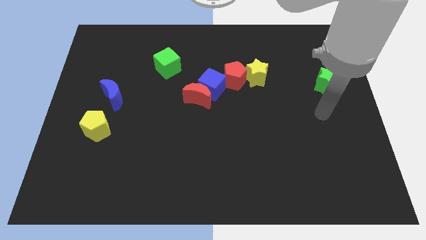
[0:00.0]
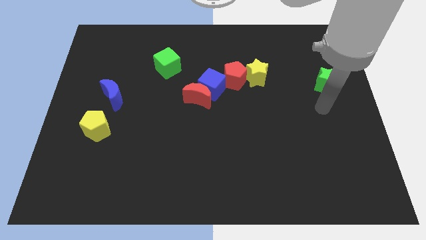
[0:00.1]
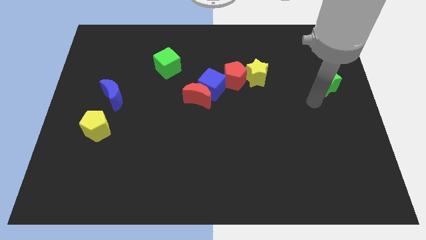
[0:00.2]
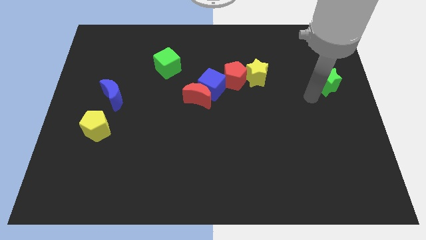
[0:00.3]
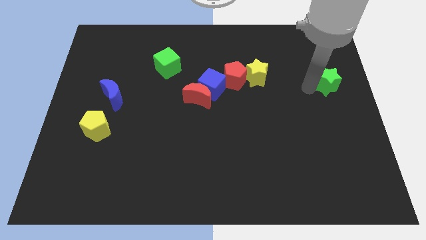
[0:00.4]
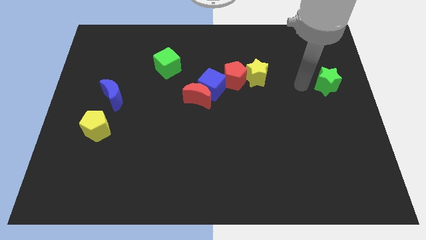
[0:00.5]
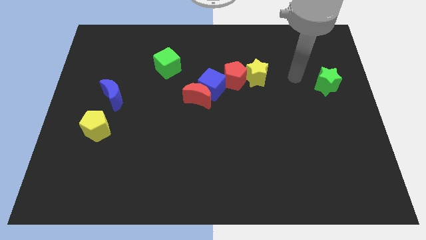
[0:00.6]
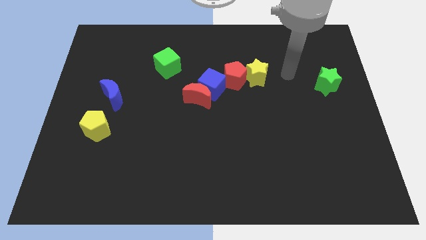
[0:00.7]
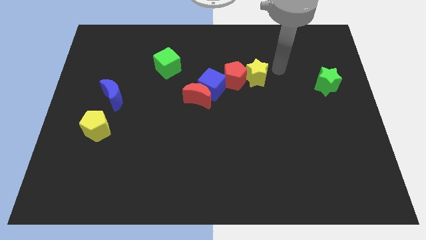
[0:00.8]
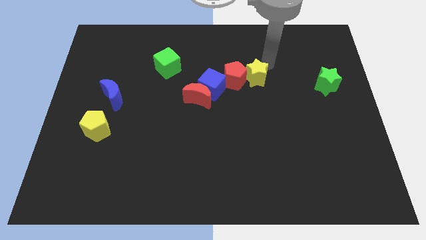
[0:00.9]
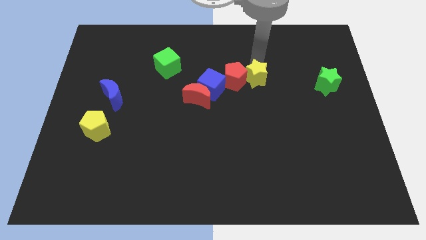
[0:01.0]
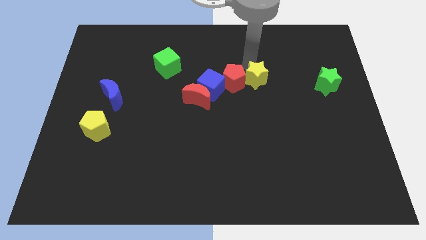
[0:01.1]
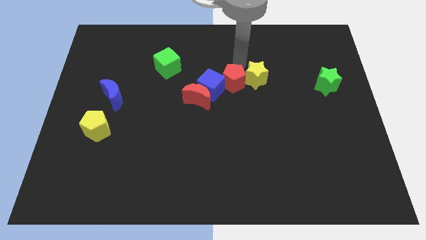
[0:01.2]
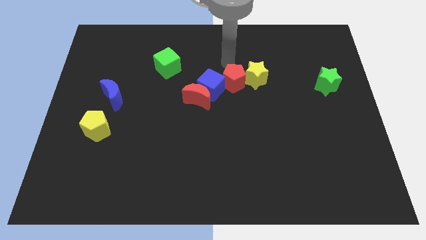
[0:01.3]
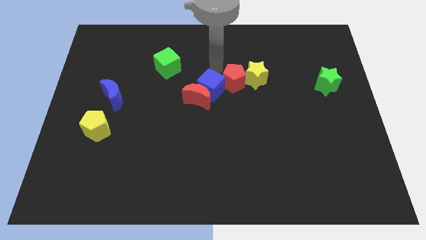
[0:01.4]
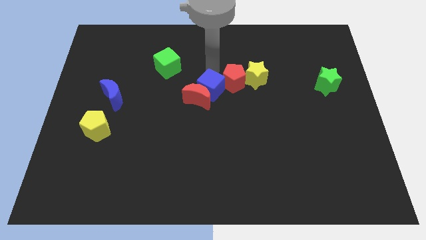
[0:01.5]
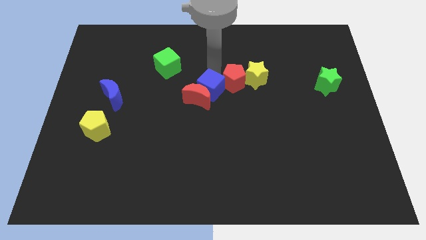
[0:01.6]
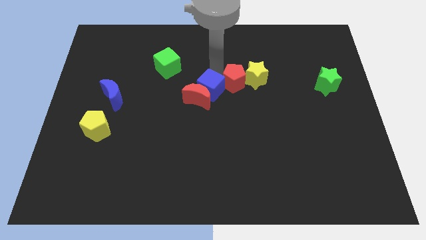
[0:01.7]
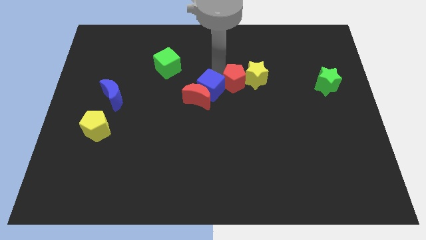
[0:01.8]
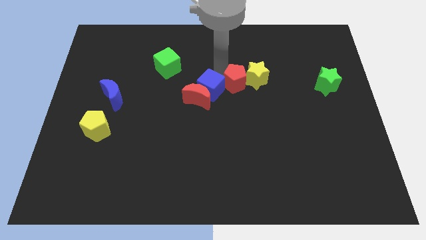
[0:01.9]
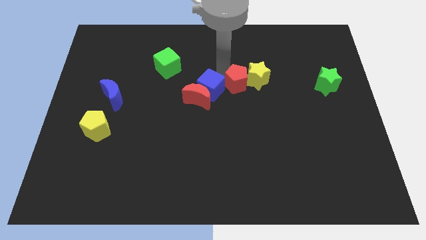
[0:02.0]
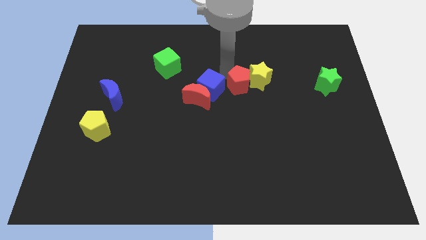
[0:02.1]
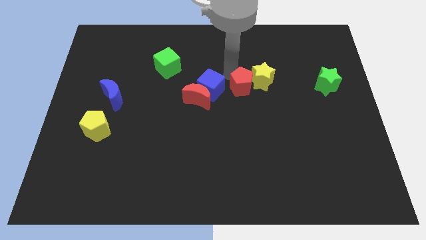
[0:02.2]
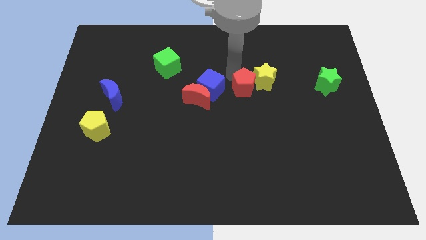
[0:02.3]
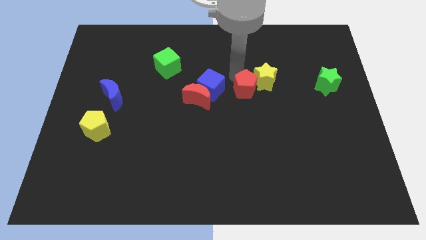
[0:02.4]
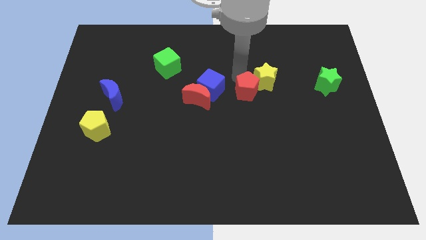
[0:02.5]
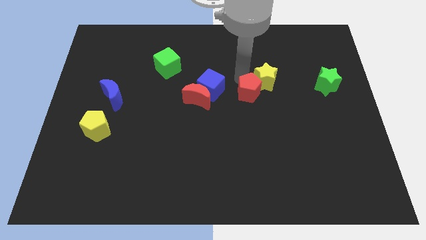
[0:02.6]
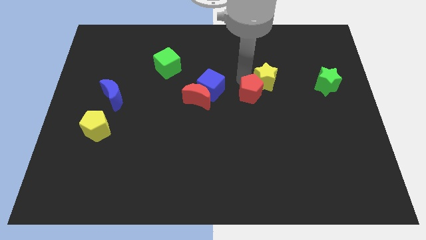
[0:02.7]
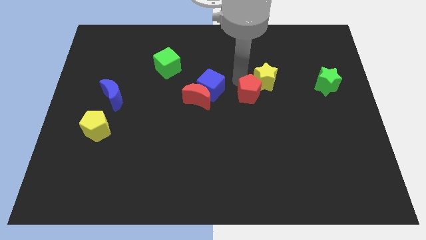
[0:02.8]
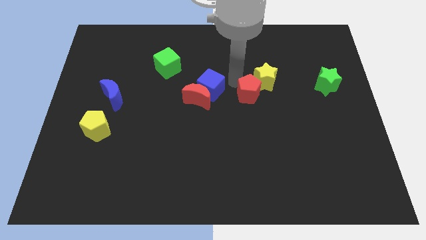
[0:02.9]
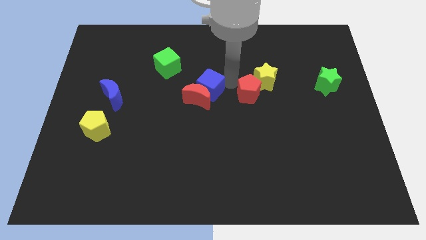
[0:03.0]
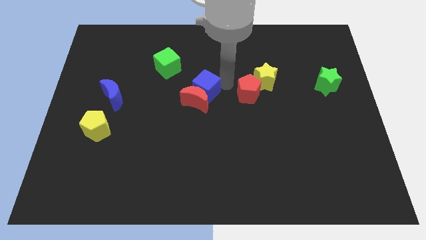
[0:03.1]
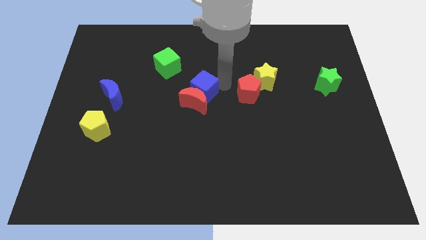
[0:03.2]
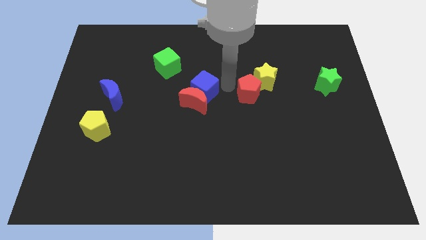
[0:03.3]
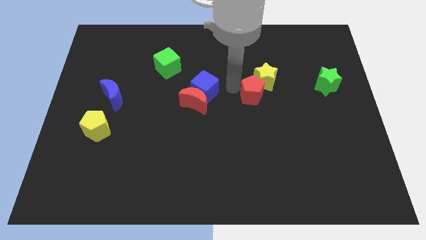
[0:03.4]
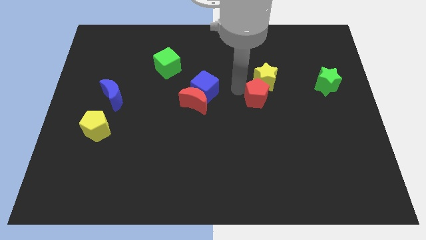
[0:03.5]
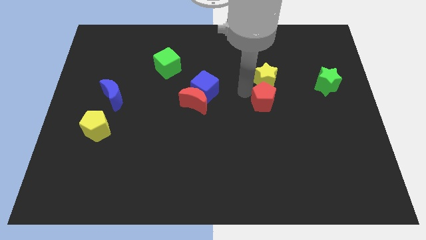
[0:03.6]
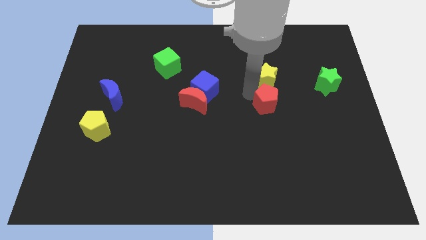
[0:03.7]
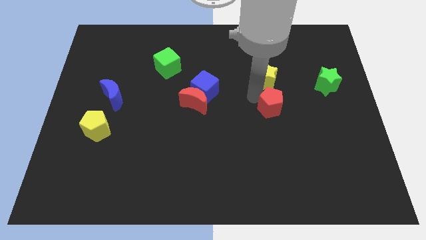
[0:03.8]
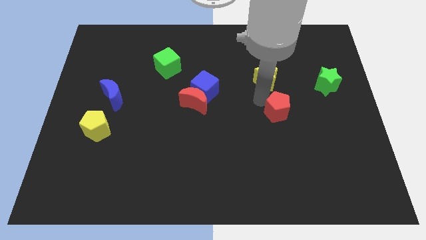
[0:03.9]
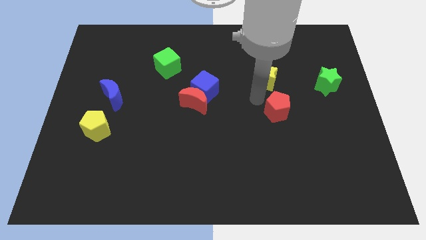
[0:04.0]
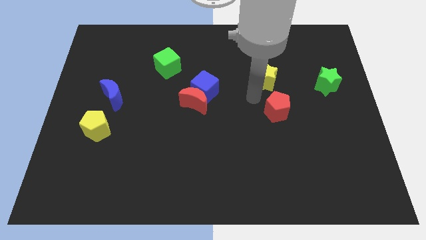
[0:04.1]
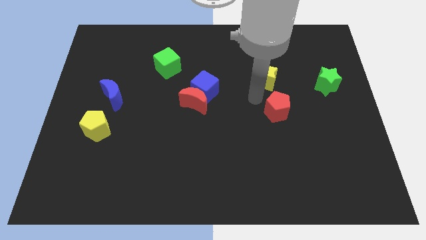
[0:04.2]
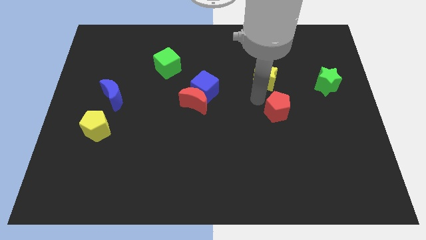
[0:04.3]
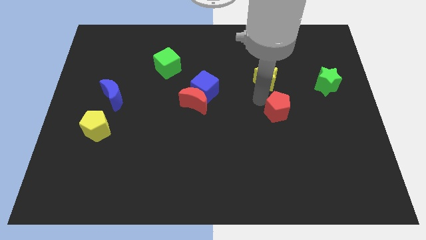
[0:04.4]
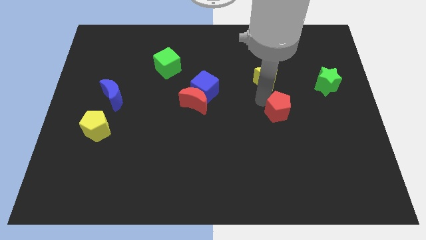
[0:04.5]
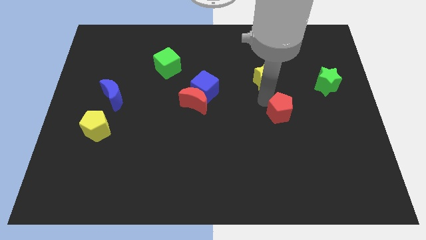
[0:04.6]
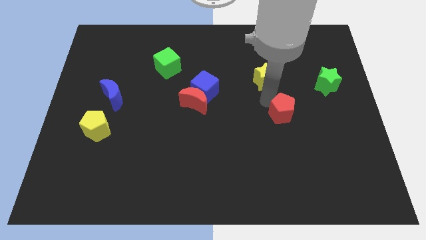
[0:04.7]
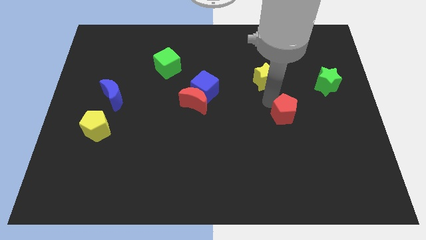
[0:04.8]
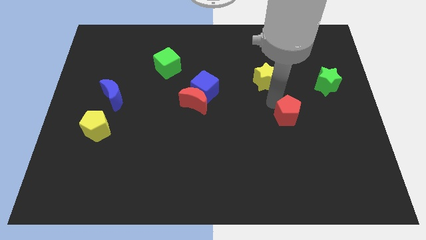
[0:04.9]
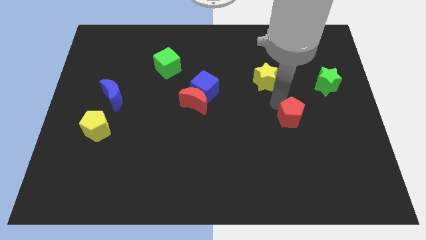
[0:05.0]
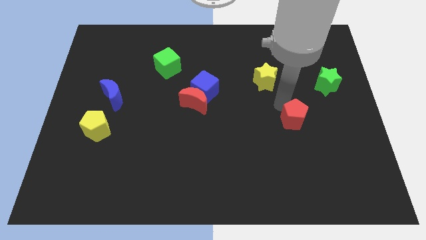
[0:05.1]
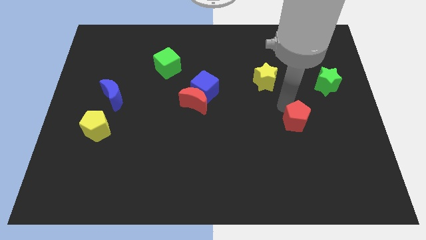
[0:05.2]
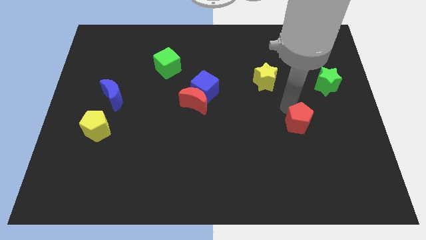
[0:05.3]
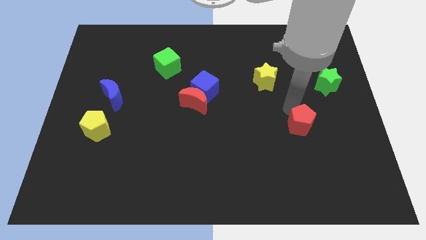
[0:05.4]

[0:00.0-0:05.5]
push the red pentagon diagonally down and right

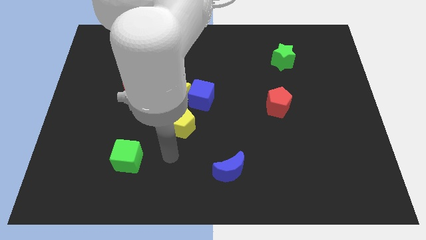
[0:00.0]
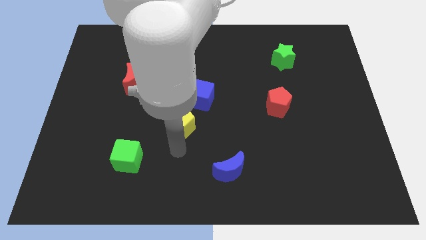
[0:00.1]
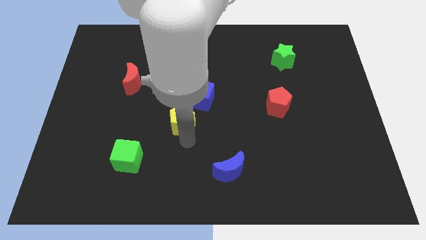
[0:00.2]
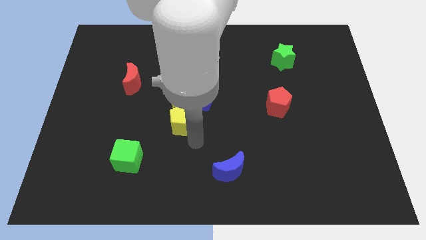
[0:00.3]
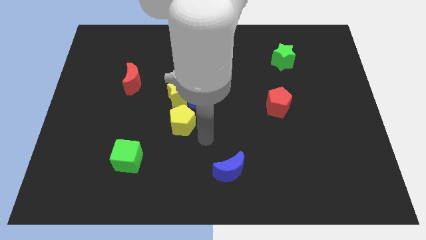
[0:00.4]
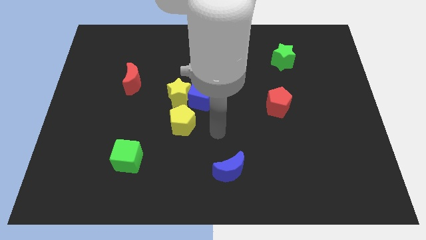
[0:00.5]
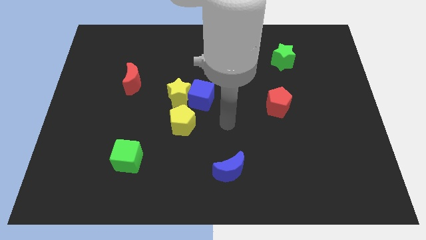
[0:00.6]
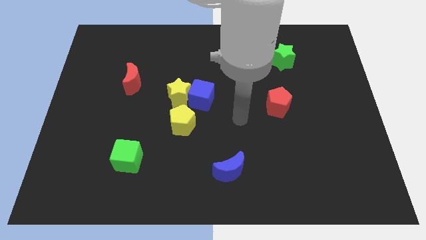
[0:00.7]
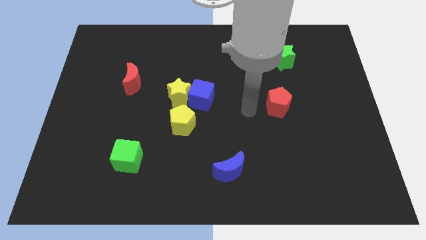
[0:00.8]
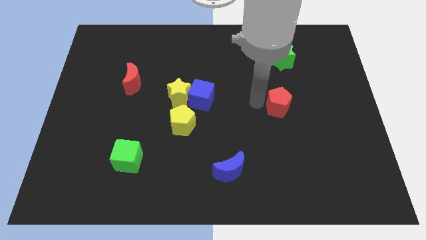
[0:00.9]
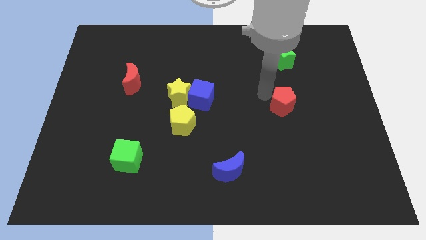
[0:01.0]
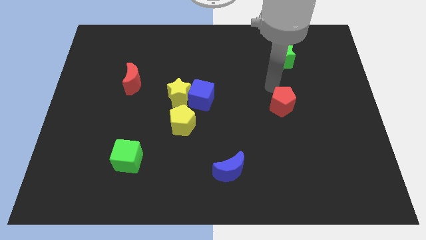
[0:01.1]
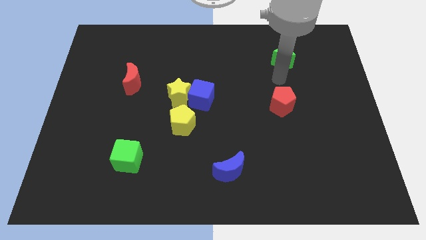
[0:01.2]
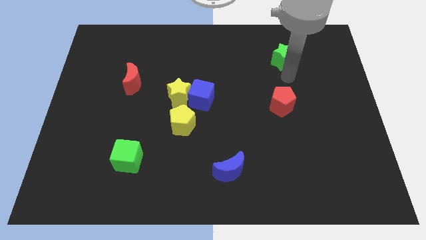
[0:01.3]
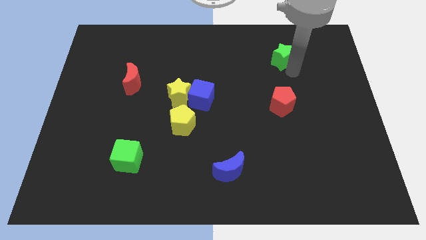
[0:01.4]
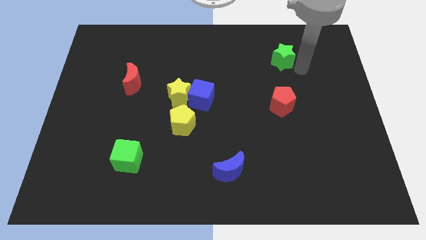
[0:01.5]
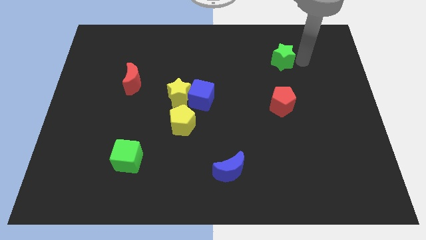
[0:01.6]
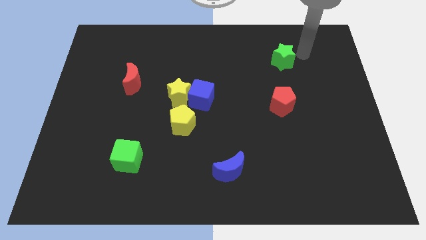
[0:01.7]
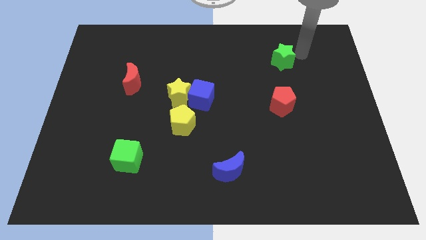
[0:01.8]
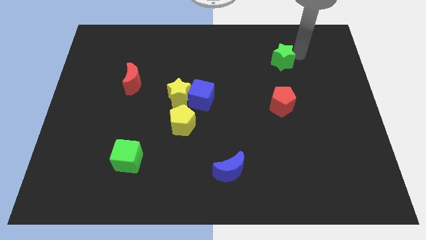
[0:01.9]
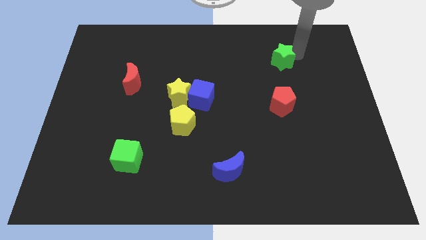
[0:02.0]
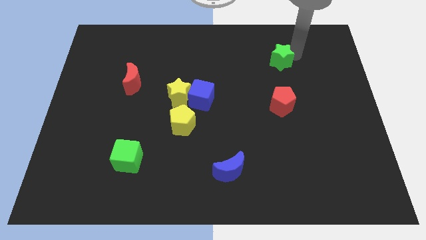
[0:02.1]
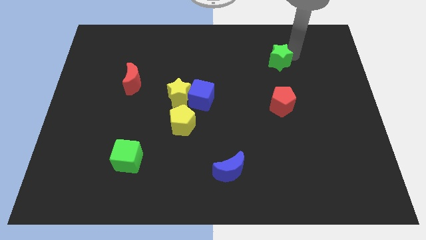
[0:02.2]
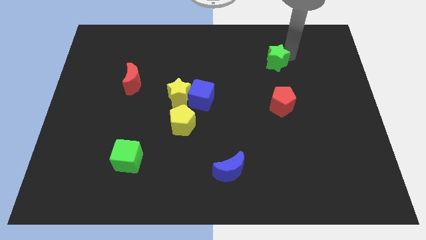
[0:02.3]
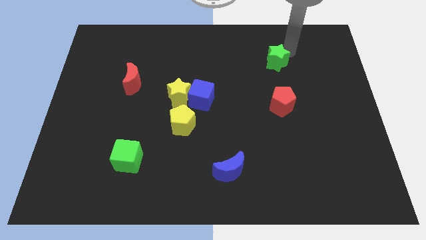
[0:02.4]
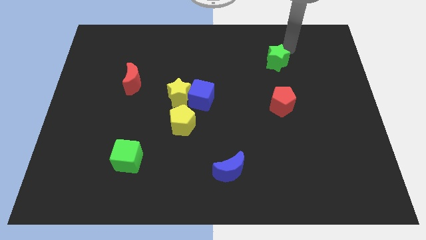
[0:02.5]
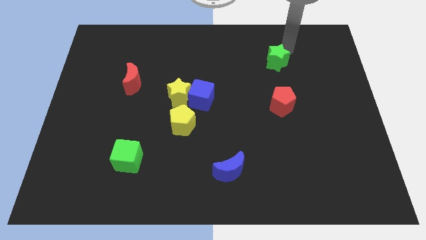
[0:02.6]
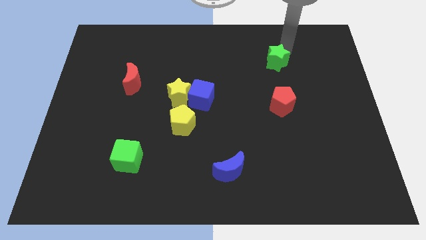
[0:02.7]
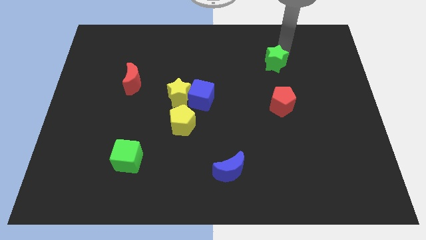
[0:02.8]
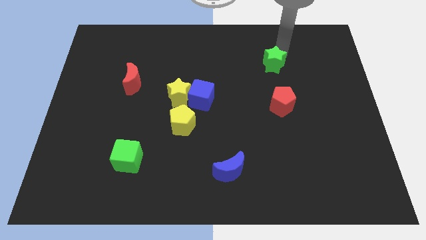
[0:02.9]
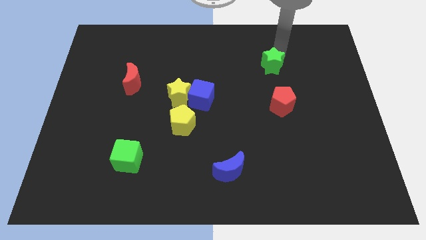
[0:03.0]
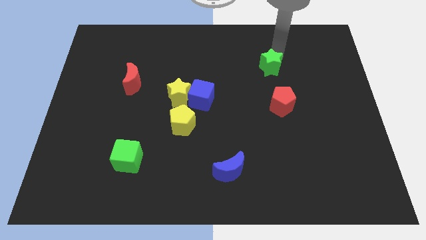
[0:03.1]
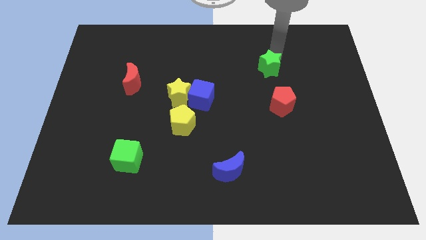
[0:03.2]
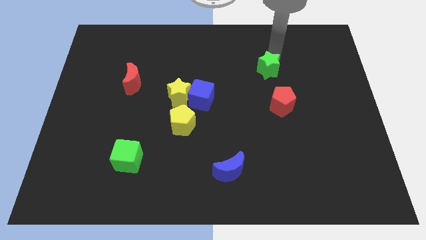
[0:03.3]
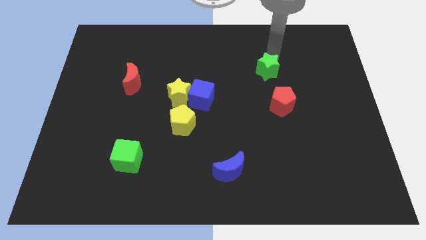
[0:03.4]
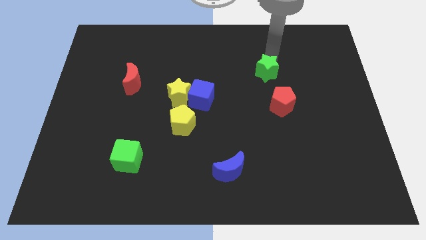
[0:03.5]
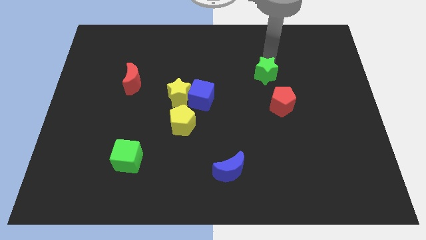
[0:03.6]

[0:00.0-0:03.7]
slightly push the green star down and then to the left
